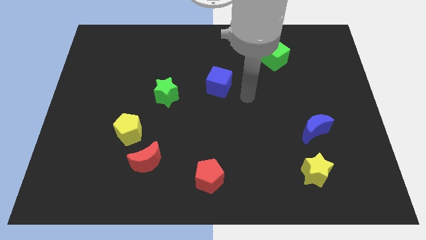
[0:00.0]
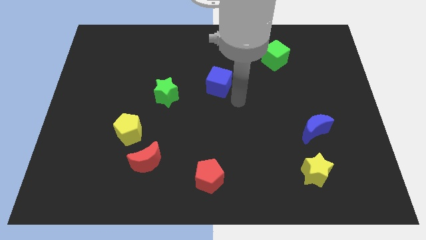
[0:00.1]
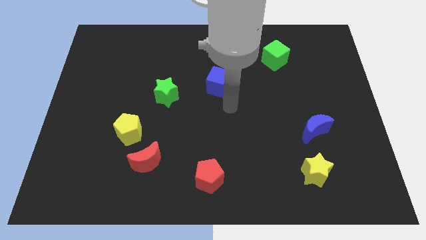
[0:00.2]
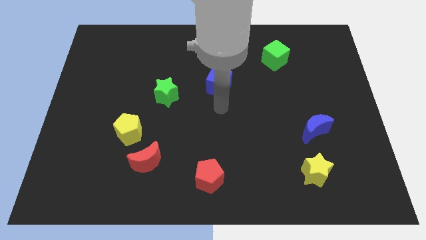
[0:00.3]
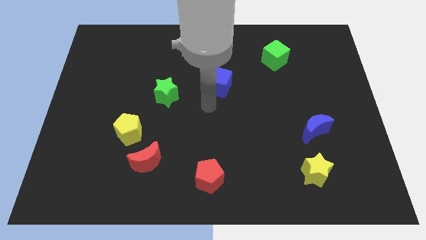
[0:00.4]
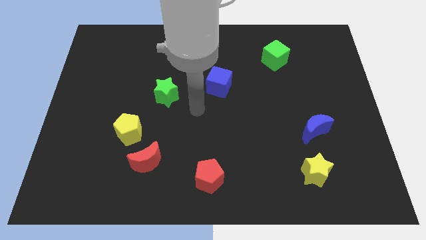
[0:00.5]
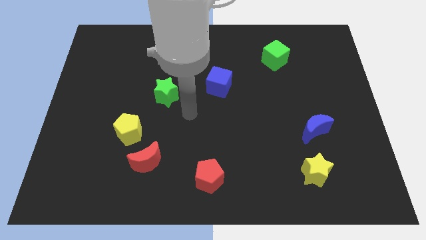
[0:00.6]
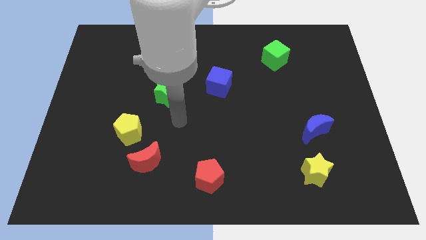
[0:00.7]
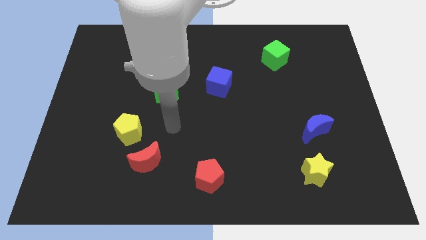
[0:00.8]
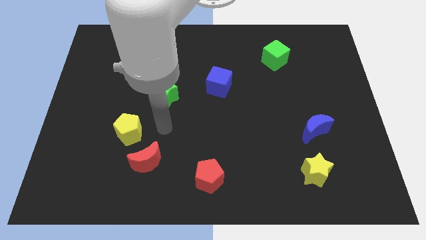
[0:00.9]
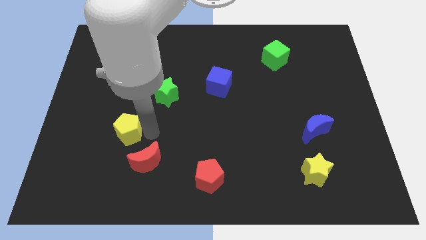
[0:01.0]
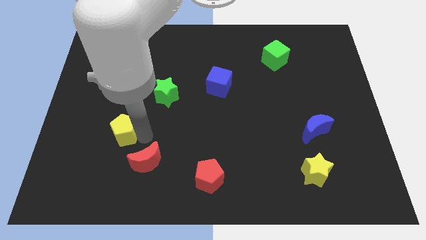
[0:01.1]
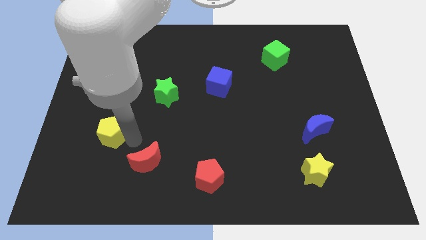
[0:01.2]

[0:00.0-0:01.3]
move the red moon away from the yellow pentagon

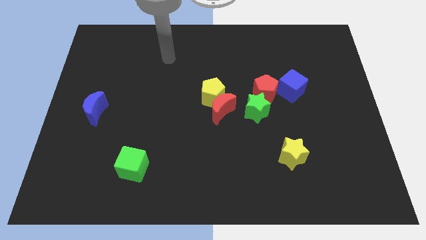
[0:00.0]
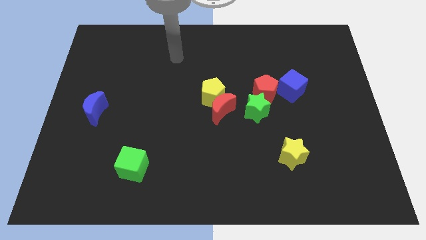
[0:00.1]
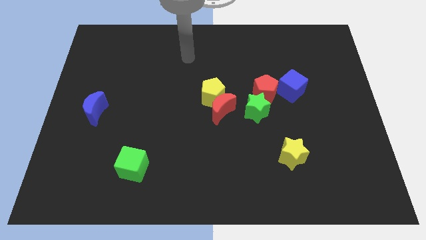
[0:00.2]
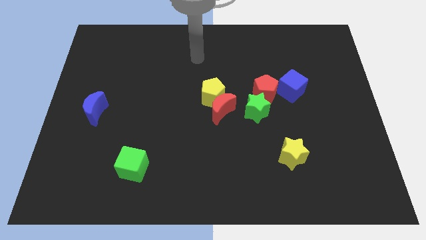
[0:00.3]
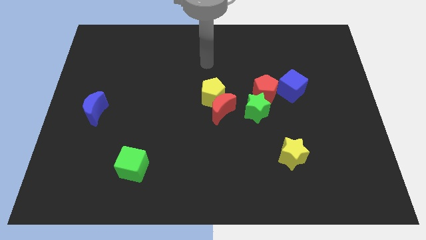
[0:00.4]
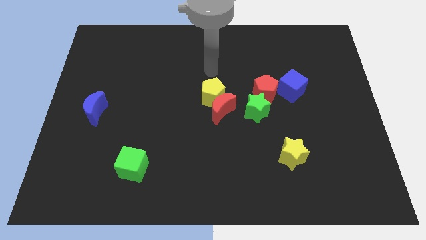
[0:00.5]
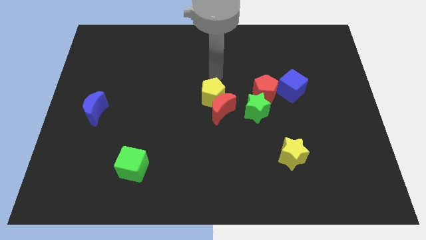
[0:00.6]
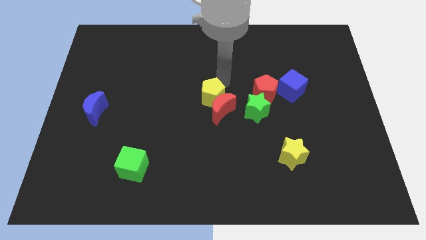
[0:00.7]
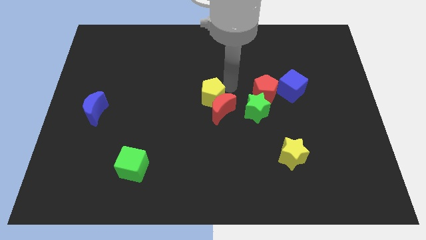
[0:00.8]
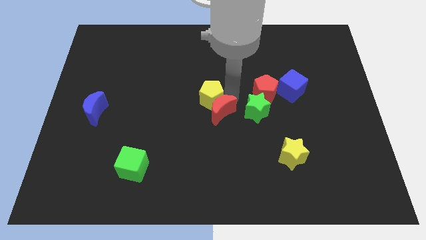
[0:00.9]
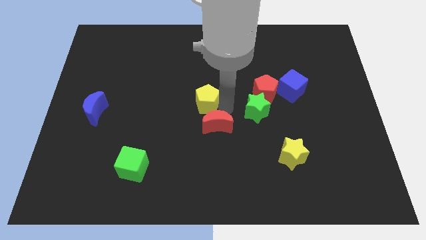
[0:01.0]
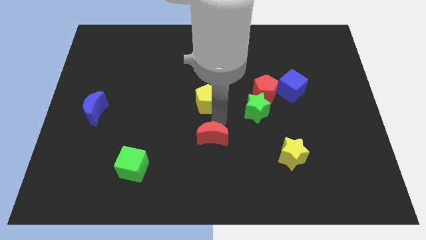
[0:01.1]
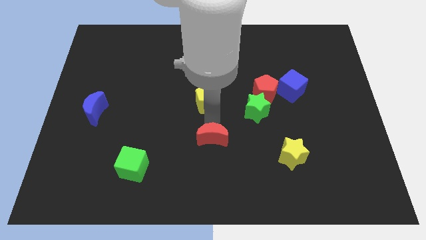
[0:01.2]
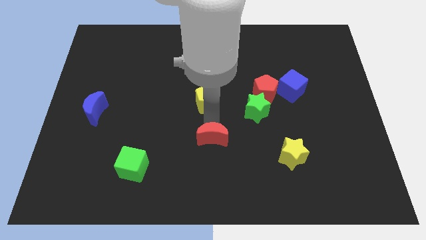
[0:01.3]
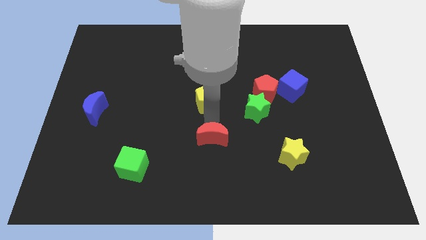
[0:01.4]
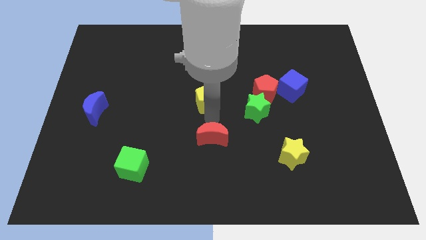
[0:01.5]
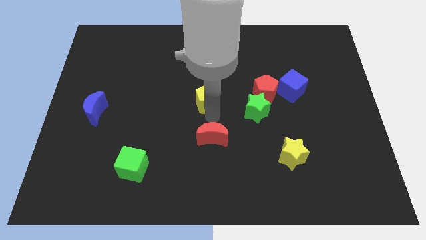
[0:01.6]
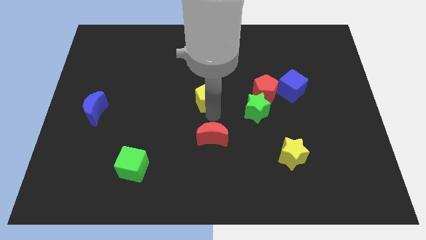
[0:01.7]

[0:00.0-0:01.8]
move the yellow pentagon away from the red moon

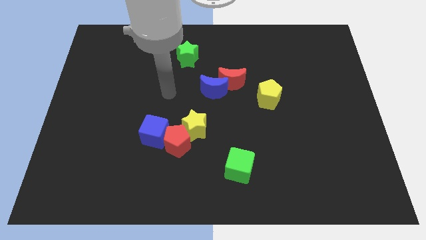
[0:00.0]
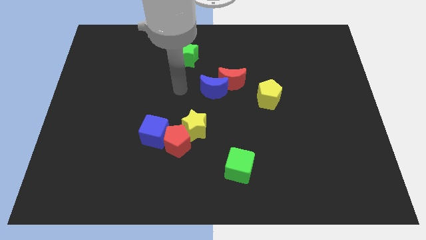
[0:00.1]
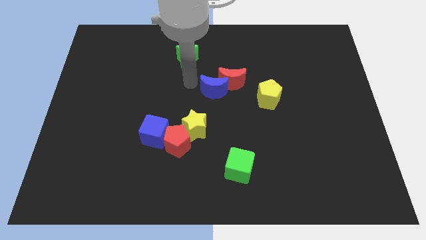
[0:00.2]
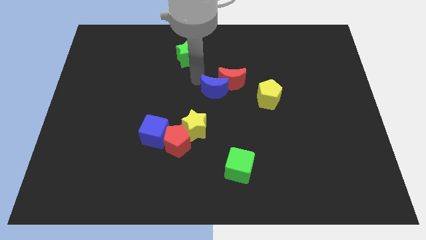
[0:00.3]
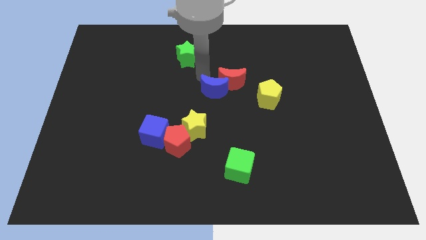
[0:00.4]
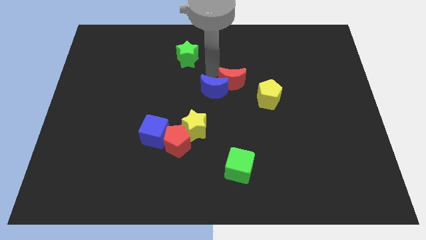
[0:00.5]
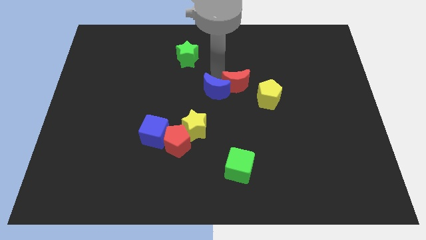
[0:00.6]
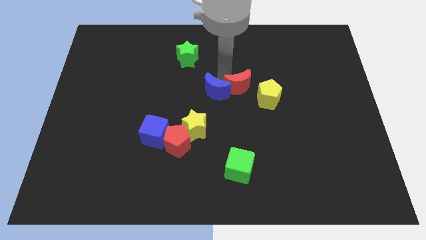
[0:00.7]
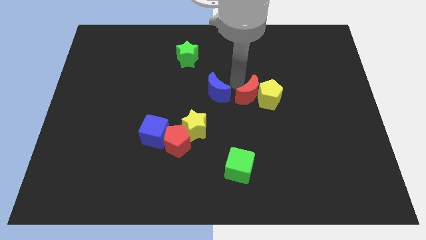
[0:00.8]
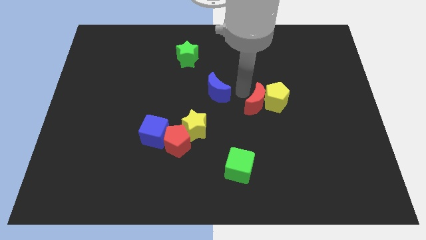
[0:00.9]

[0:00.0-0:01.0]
separate the blue moon from the red moon

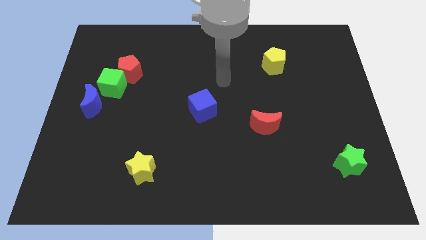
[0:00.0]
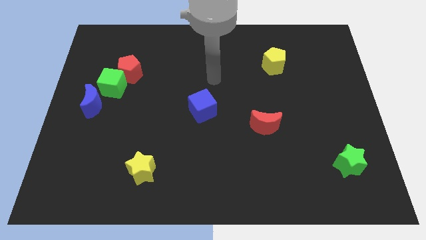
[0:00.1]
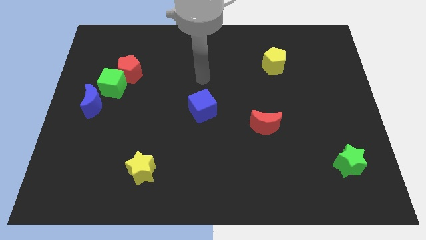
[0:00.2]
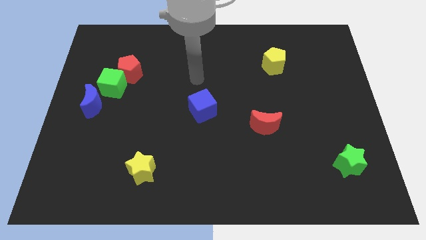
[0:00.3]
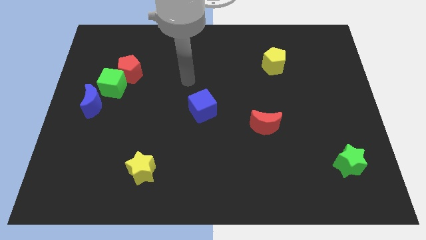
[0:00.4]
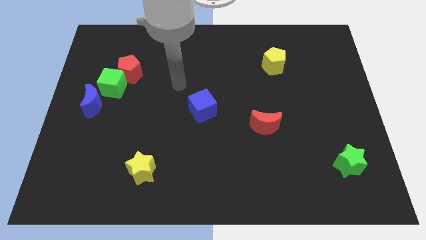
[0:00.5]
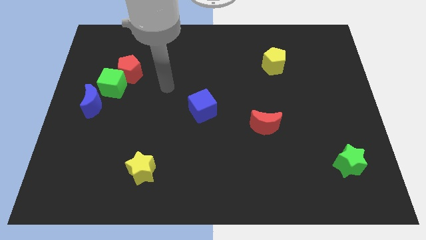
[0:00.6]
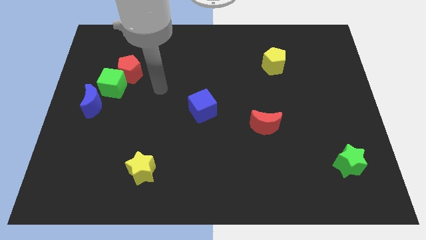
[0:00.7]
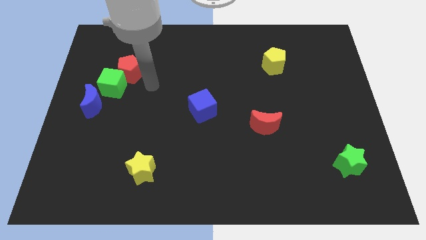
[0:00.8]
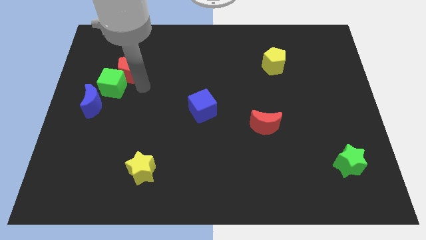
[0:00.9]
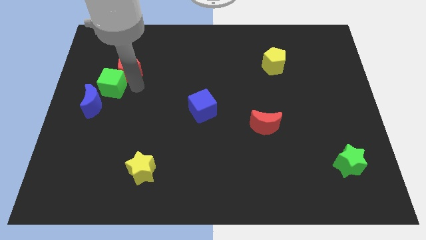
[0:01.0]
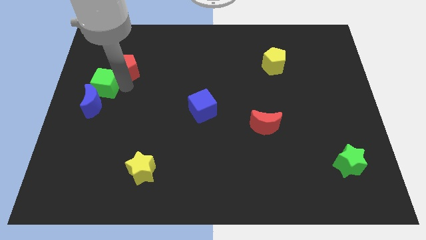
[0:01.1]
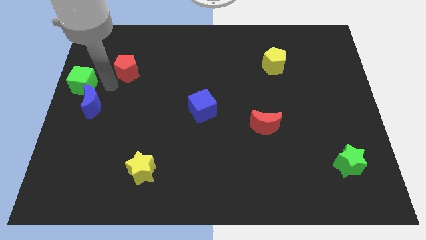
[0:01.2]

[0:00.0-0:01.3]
pull the red pentagon apart from the green cube

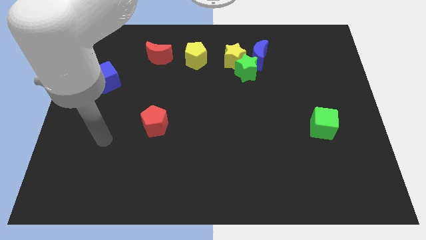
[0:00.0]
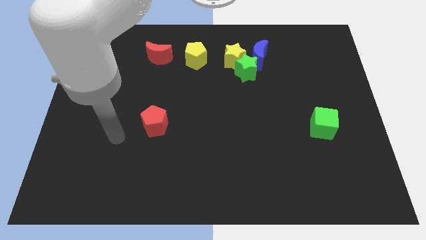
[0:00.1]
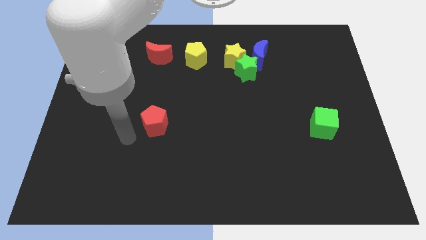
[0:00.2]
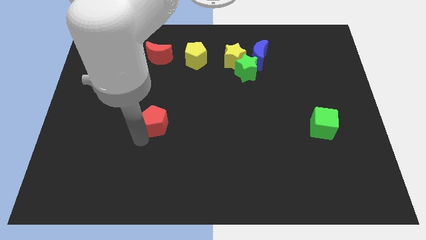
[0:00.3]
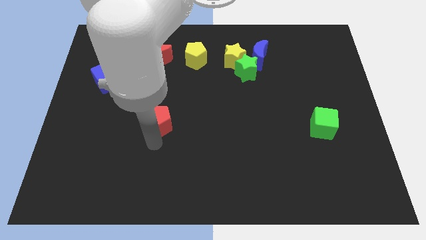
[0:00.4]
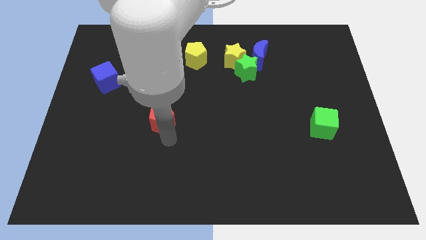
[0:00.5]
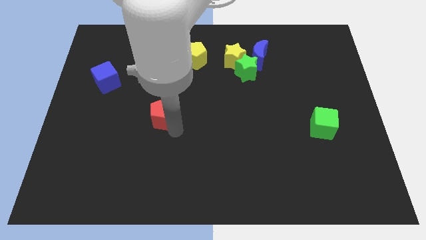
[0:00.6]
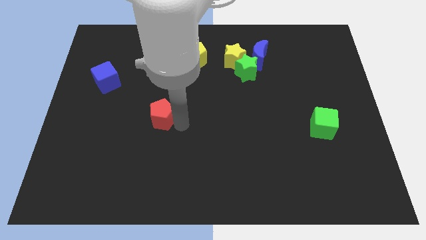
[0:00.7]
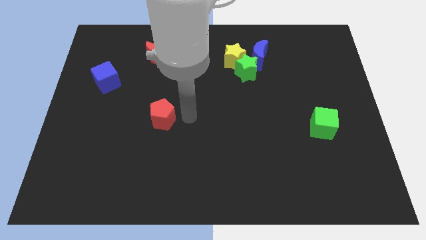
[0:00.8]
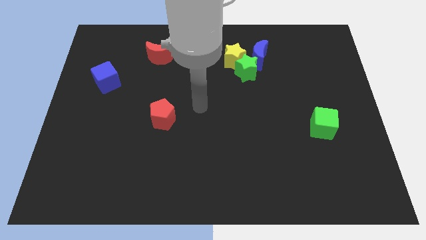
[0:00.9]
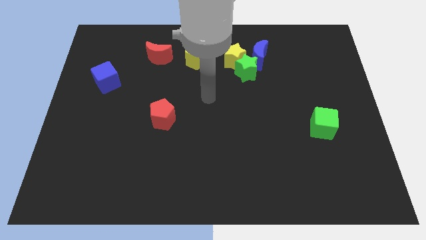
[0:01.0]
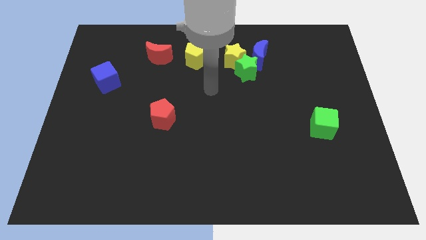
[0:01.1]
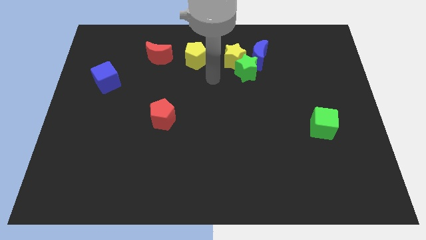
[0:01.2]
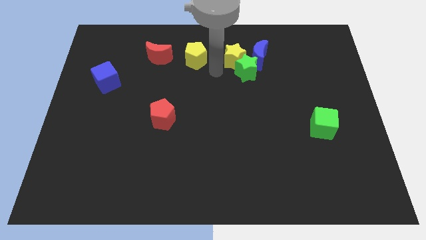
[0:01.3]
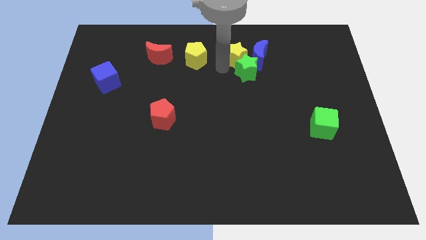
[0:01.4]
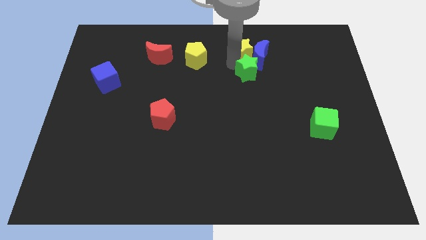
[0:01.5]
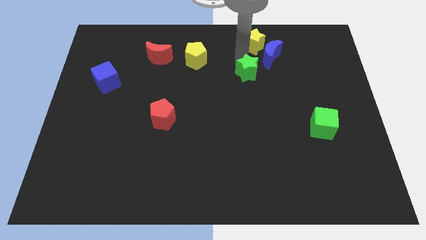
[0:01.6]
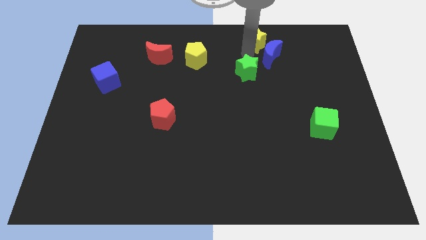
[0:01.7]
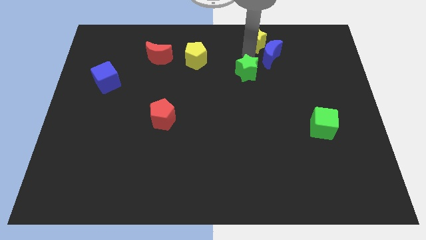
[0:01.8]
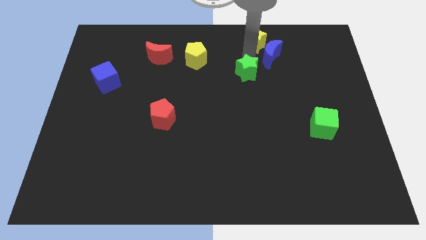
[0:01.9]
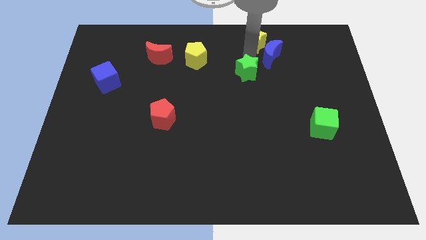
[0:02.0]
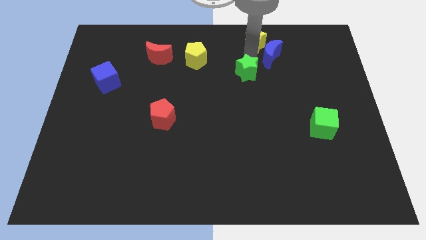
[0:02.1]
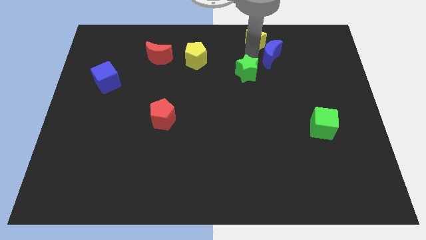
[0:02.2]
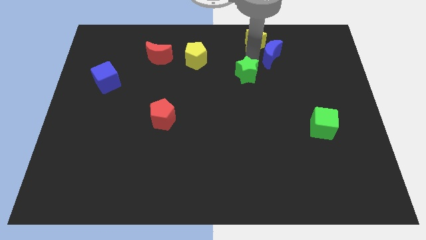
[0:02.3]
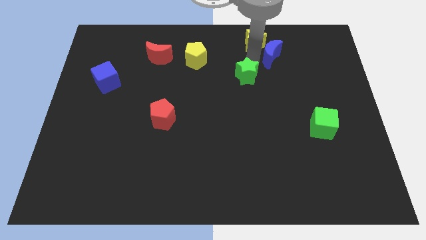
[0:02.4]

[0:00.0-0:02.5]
move the green star away from the yellow star and blue moon

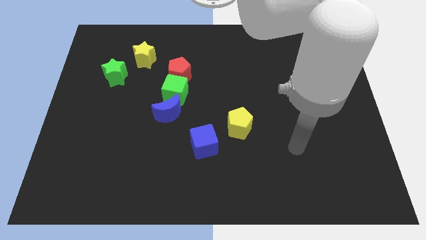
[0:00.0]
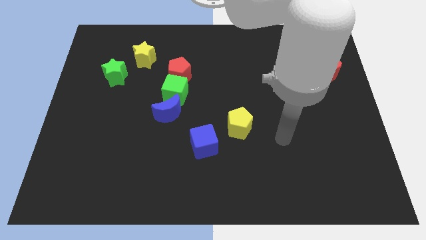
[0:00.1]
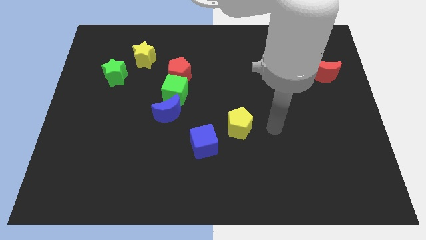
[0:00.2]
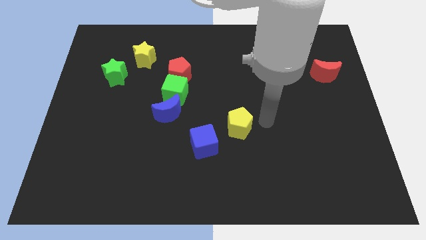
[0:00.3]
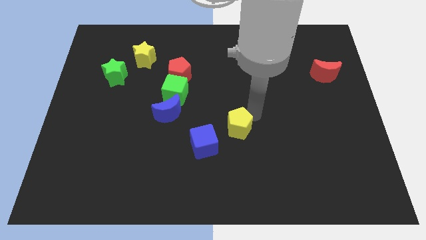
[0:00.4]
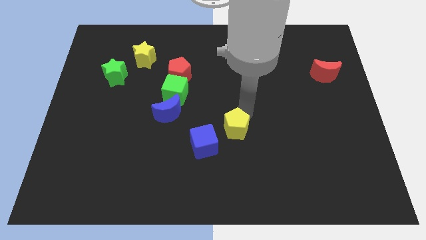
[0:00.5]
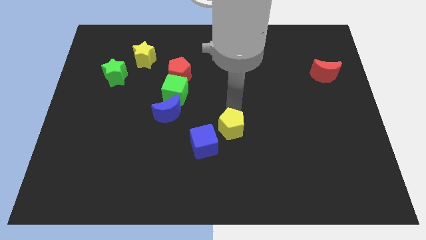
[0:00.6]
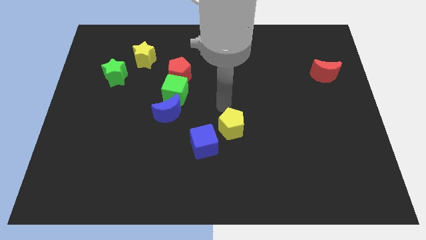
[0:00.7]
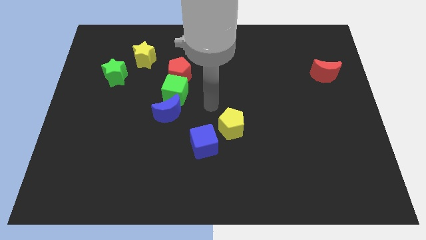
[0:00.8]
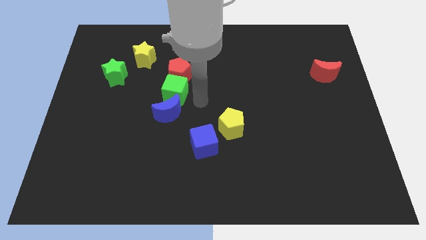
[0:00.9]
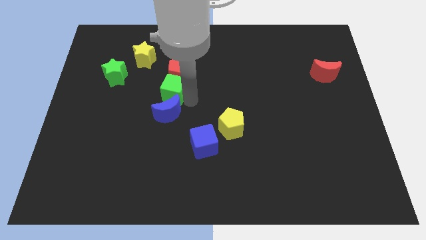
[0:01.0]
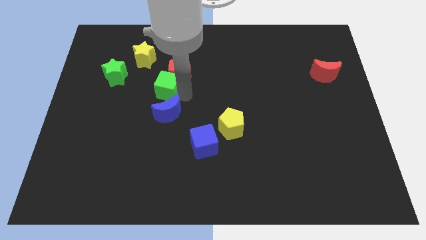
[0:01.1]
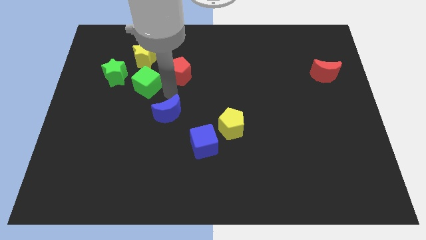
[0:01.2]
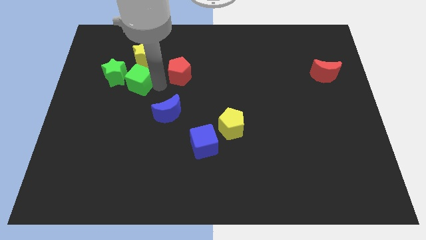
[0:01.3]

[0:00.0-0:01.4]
separate the red pentagon from the green cube
